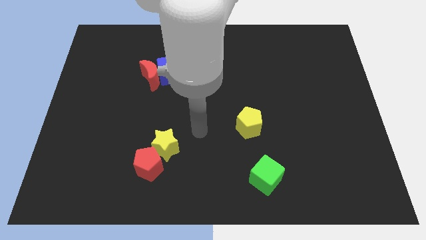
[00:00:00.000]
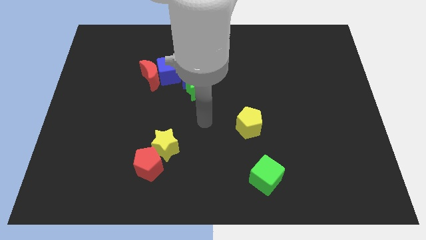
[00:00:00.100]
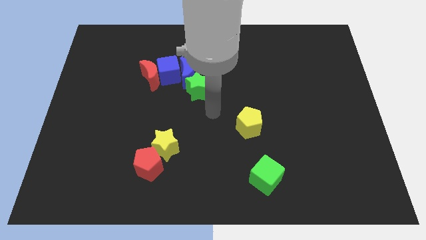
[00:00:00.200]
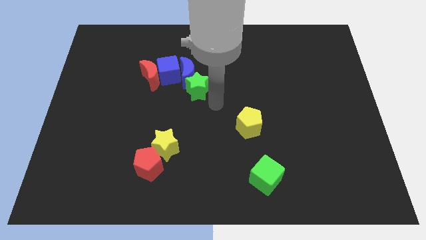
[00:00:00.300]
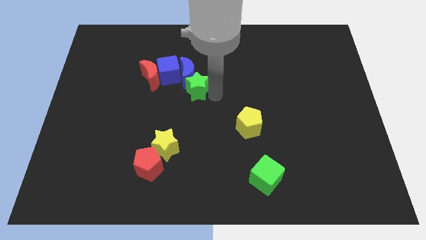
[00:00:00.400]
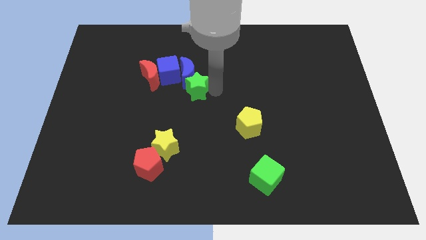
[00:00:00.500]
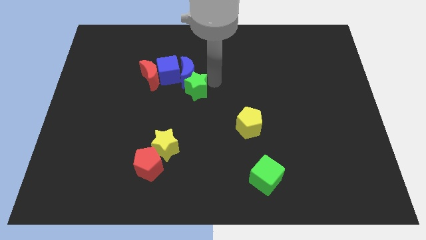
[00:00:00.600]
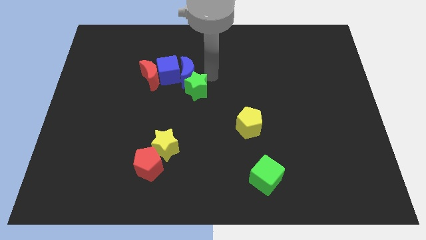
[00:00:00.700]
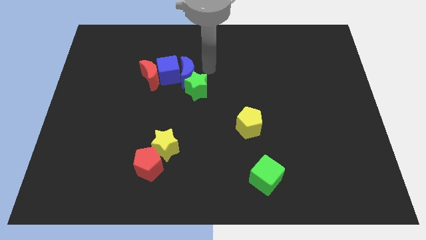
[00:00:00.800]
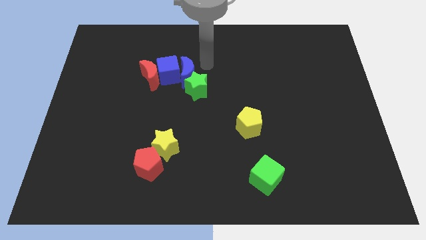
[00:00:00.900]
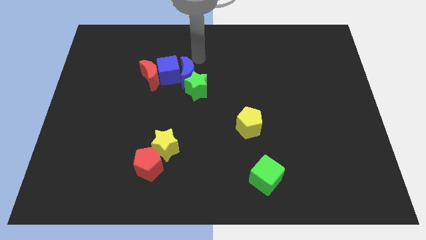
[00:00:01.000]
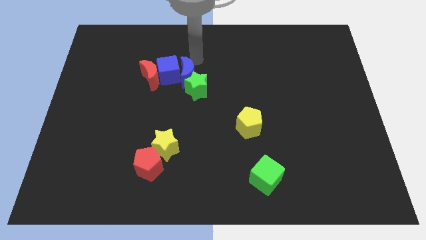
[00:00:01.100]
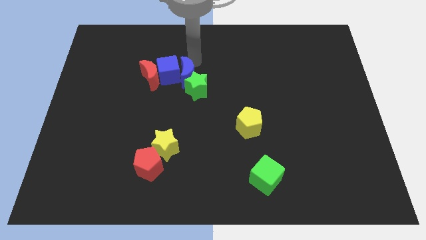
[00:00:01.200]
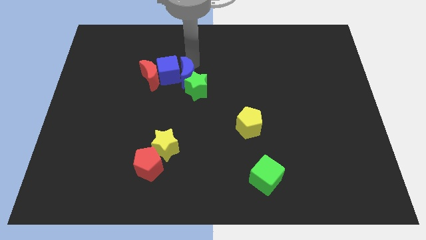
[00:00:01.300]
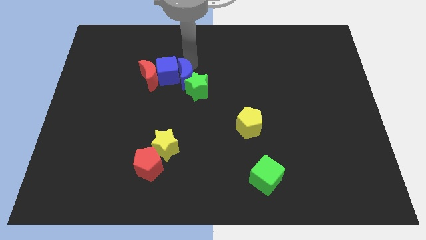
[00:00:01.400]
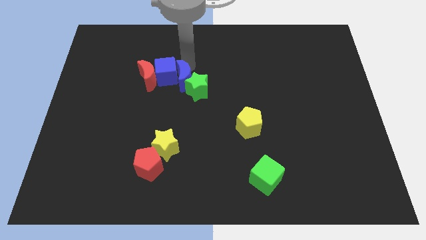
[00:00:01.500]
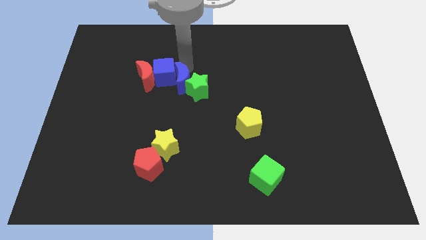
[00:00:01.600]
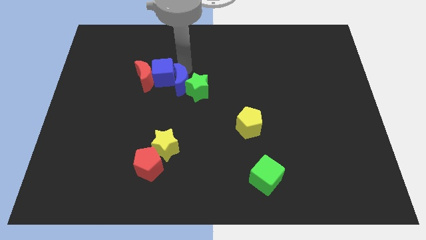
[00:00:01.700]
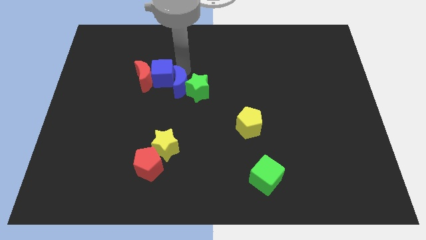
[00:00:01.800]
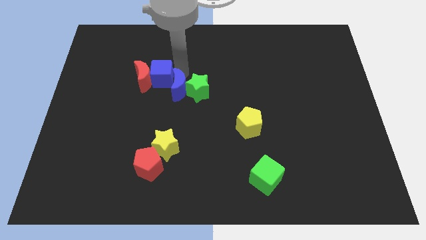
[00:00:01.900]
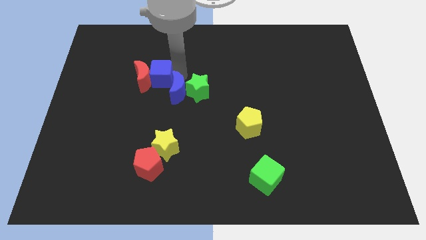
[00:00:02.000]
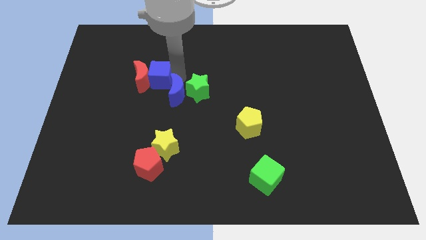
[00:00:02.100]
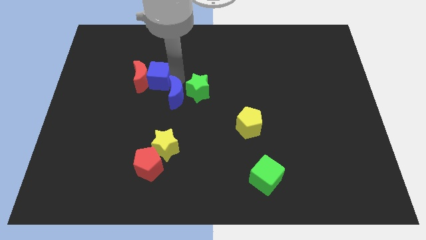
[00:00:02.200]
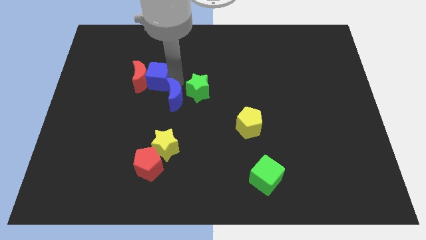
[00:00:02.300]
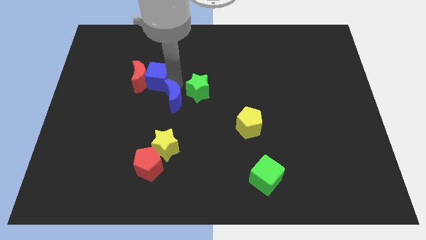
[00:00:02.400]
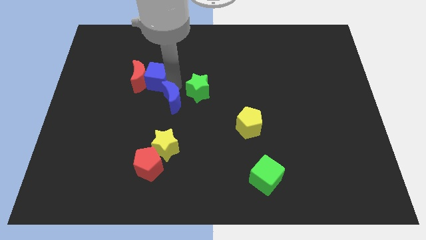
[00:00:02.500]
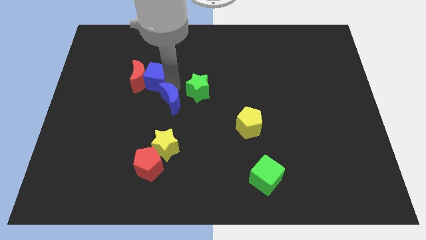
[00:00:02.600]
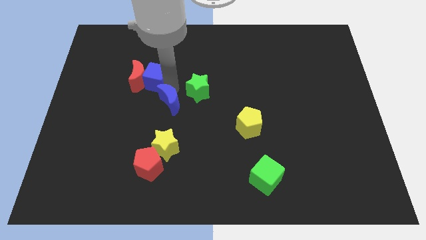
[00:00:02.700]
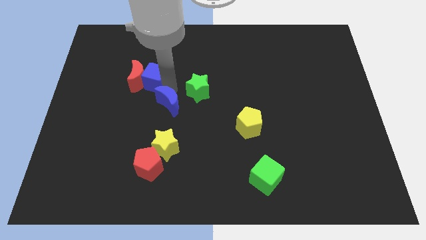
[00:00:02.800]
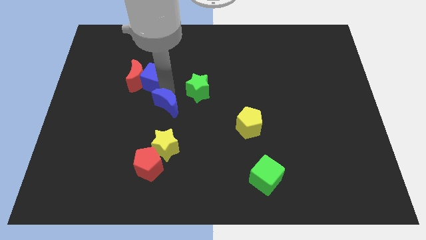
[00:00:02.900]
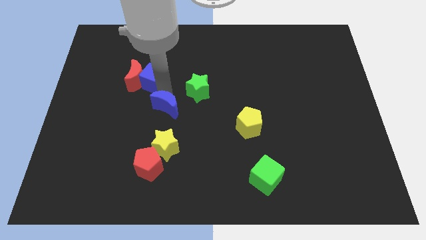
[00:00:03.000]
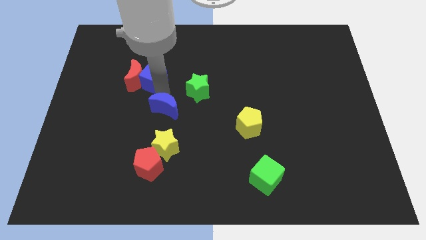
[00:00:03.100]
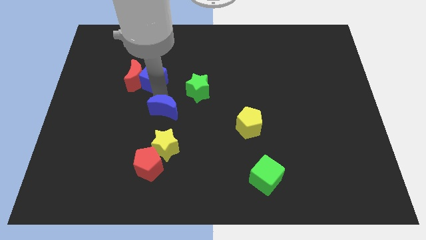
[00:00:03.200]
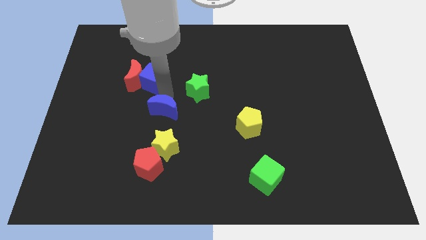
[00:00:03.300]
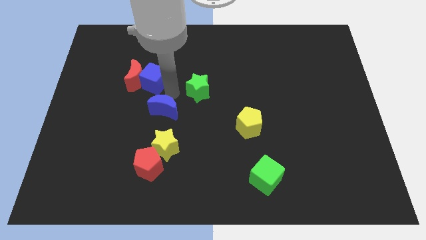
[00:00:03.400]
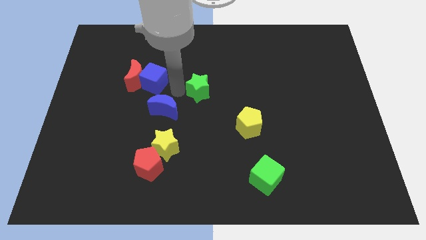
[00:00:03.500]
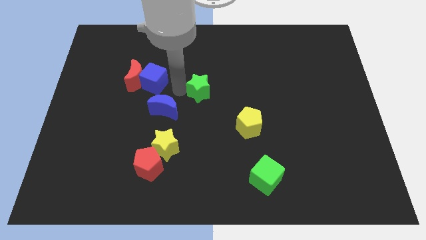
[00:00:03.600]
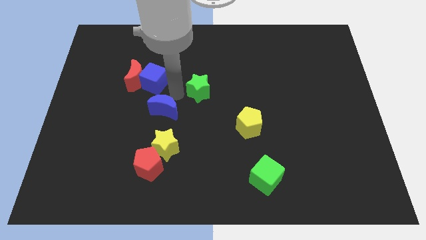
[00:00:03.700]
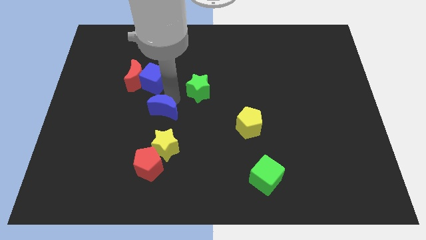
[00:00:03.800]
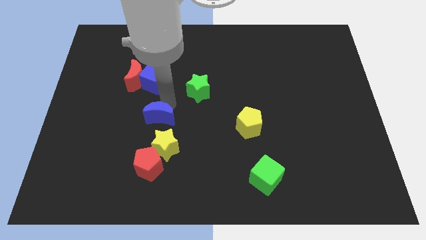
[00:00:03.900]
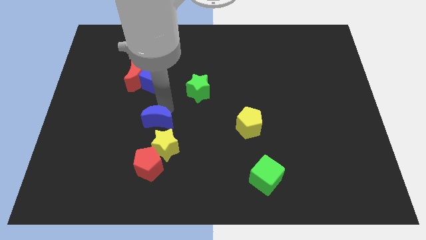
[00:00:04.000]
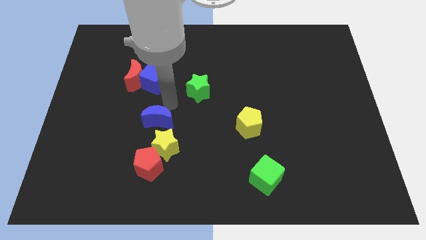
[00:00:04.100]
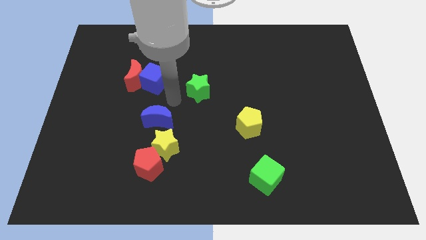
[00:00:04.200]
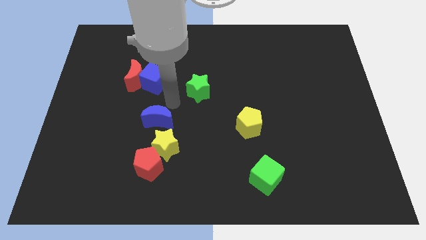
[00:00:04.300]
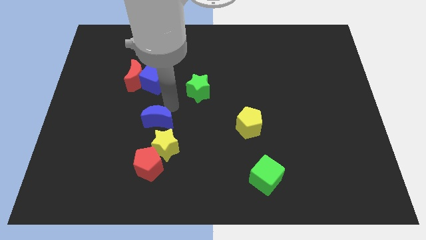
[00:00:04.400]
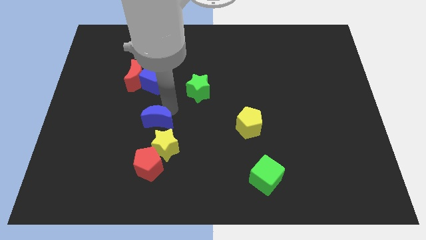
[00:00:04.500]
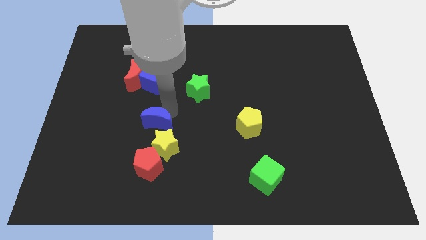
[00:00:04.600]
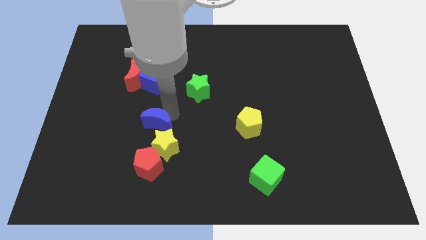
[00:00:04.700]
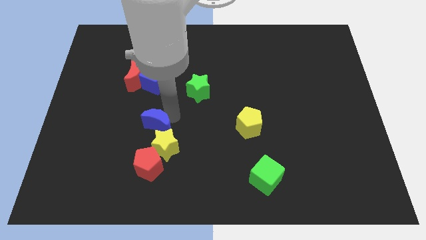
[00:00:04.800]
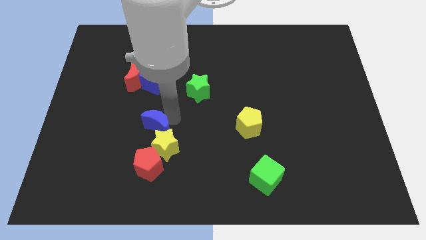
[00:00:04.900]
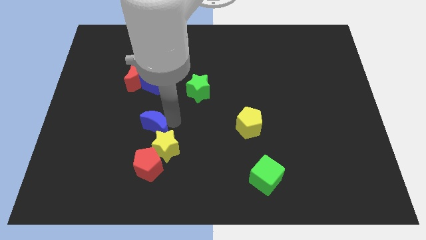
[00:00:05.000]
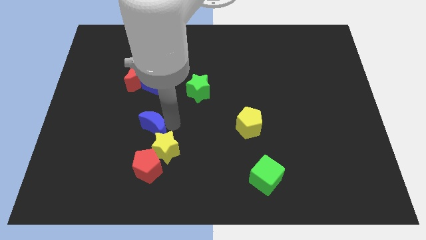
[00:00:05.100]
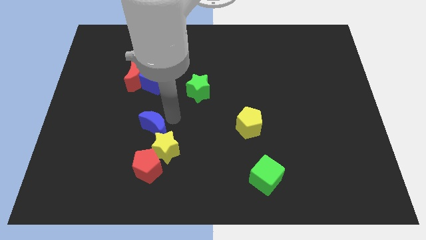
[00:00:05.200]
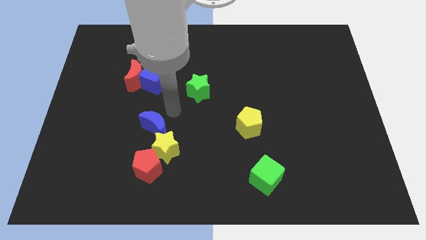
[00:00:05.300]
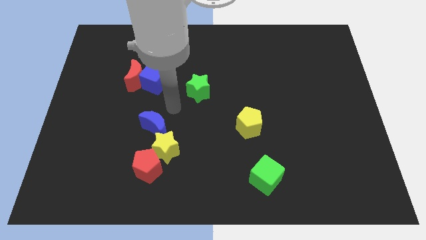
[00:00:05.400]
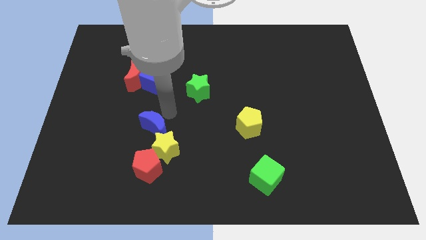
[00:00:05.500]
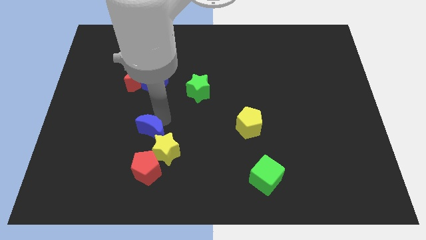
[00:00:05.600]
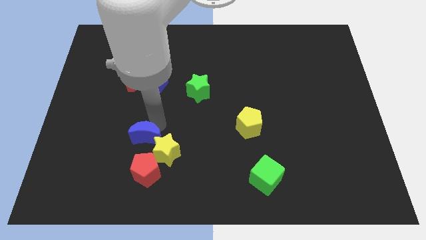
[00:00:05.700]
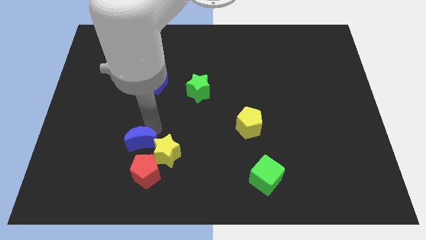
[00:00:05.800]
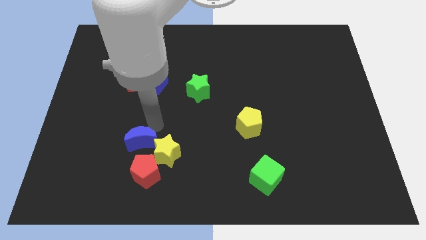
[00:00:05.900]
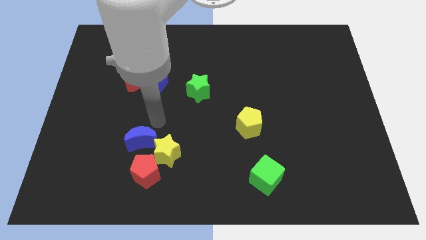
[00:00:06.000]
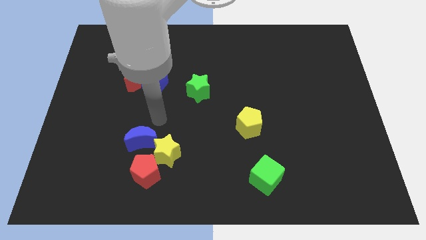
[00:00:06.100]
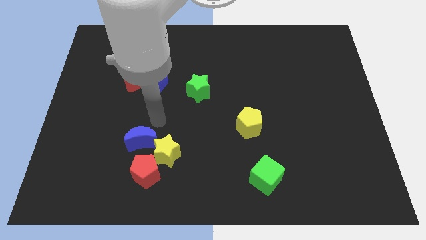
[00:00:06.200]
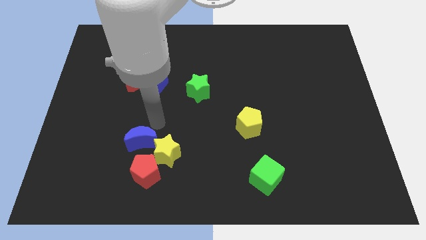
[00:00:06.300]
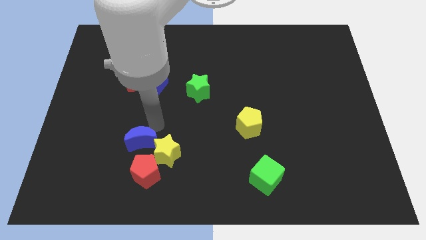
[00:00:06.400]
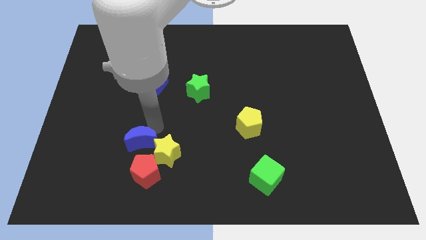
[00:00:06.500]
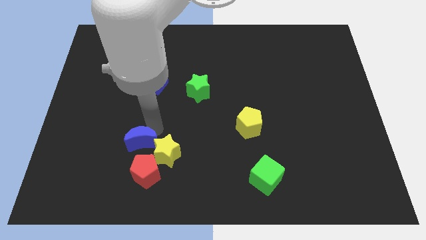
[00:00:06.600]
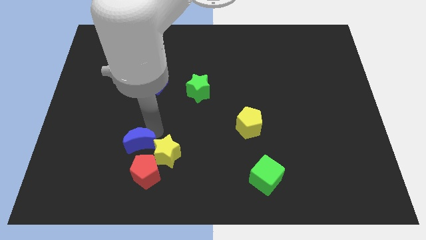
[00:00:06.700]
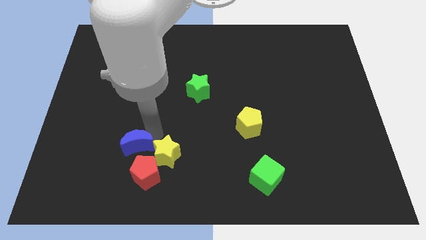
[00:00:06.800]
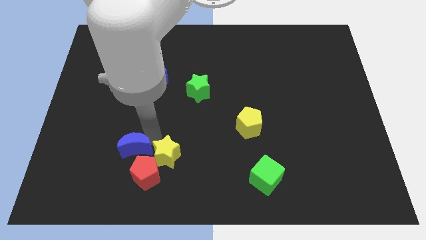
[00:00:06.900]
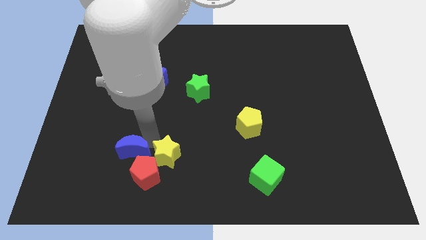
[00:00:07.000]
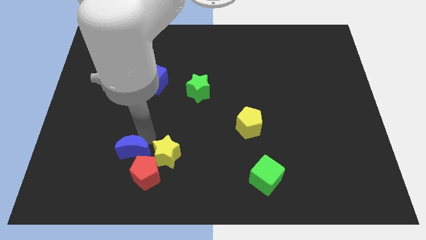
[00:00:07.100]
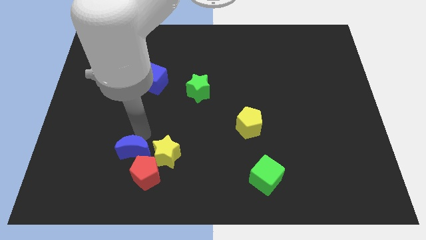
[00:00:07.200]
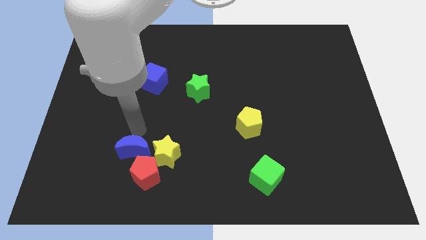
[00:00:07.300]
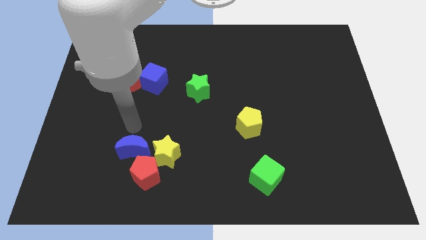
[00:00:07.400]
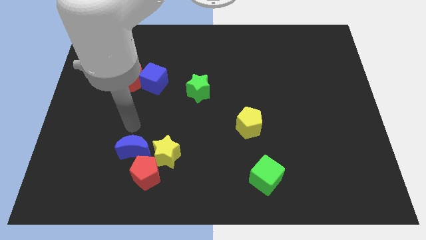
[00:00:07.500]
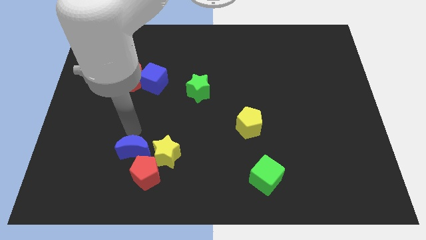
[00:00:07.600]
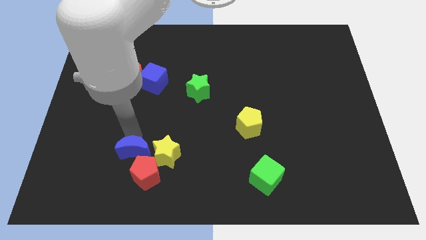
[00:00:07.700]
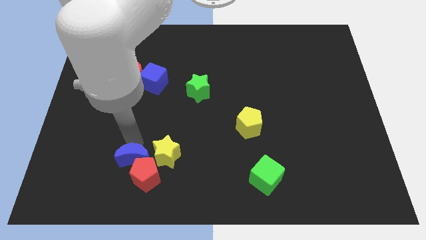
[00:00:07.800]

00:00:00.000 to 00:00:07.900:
move the blue moon diagonally down and to the left of the yellow star

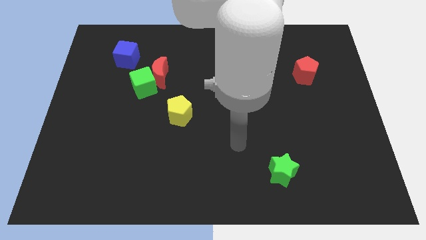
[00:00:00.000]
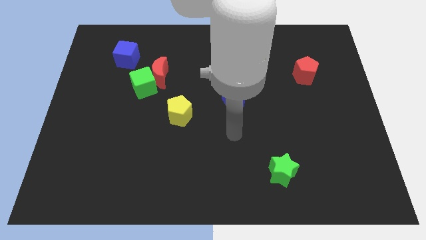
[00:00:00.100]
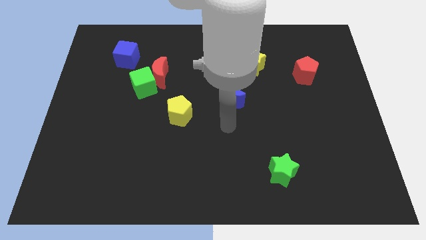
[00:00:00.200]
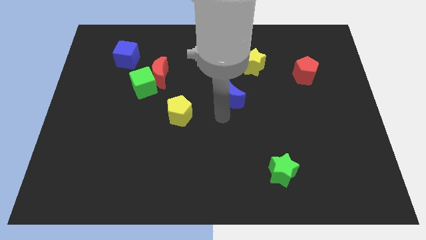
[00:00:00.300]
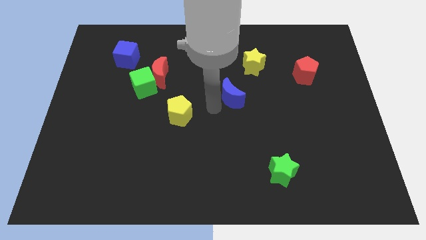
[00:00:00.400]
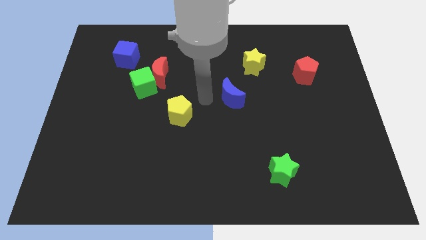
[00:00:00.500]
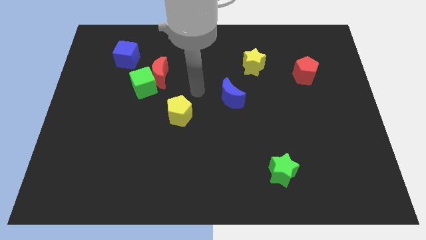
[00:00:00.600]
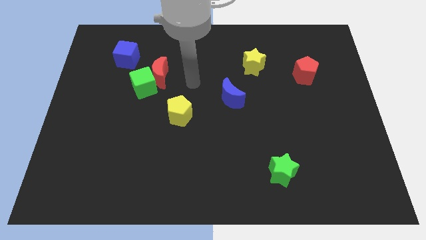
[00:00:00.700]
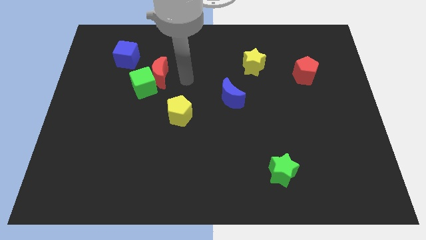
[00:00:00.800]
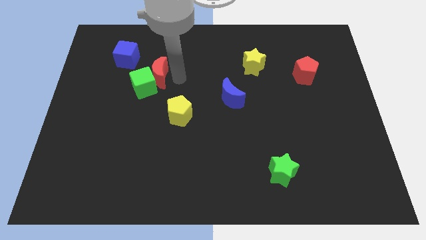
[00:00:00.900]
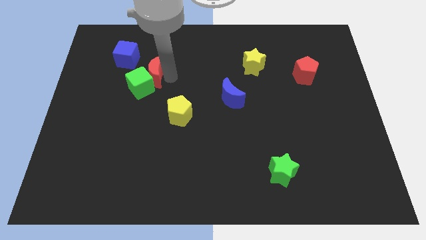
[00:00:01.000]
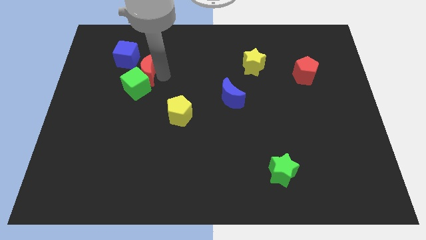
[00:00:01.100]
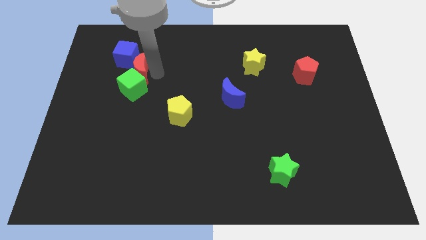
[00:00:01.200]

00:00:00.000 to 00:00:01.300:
push the red moon diagonally up and to the left of the green cube
